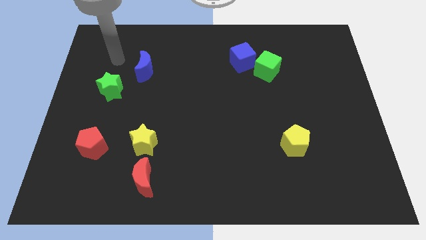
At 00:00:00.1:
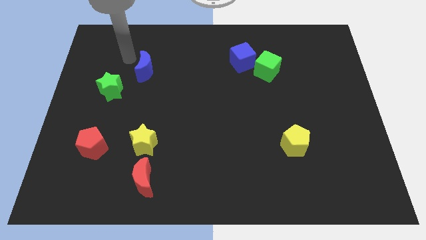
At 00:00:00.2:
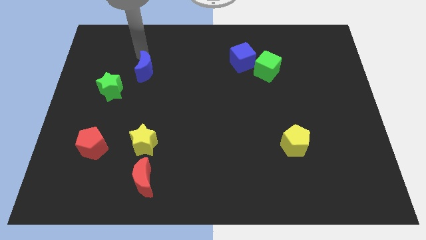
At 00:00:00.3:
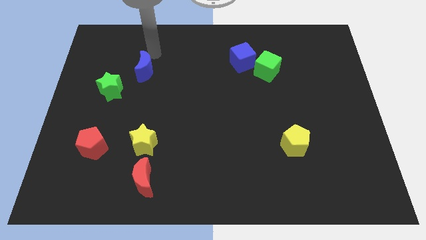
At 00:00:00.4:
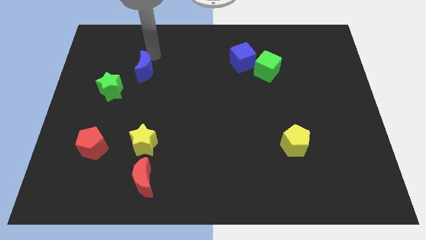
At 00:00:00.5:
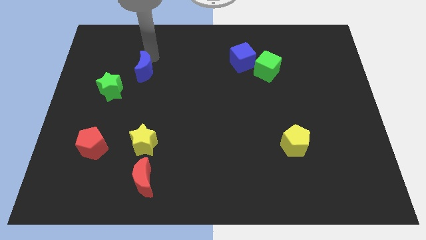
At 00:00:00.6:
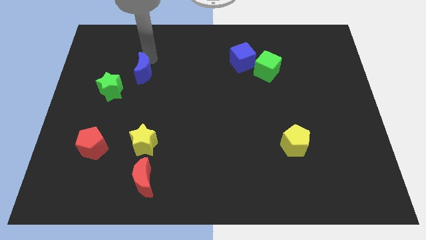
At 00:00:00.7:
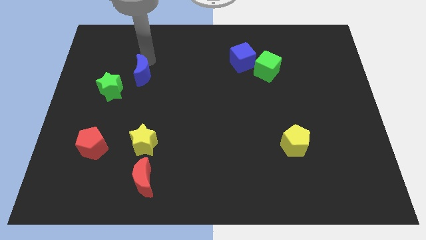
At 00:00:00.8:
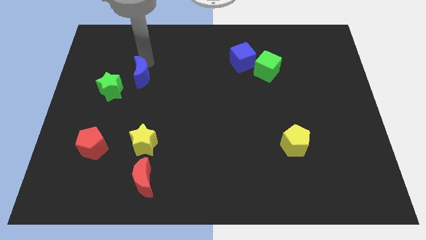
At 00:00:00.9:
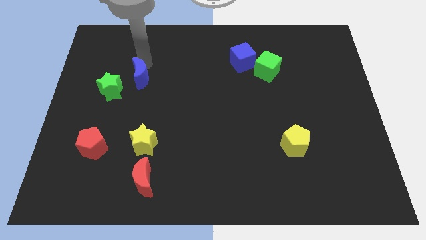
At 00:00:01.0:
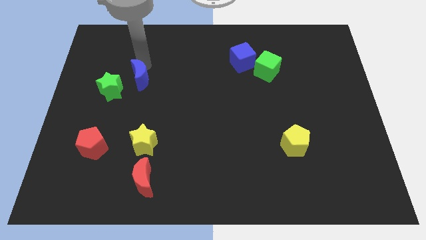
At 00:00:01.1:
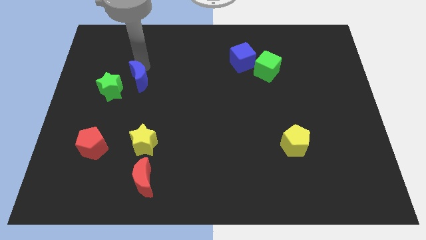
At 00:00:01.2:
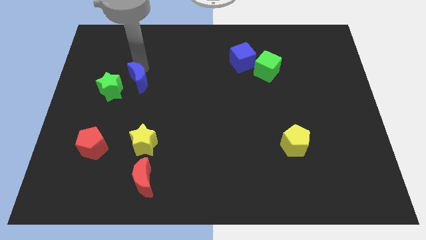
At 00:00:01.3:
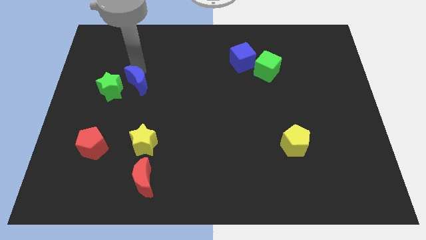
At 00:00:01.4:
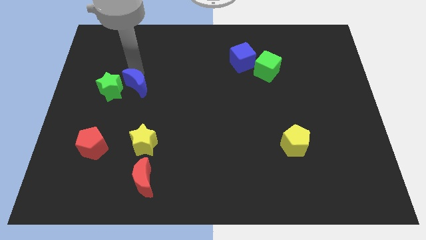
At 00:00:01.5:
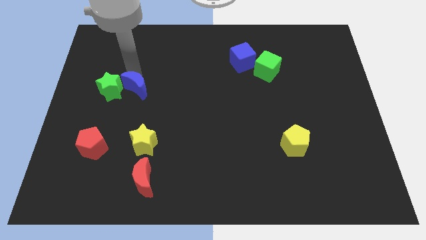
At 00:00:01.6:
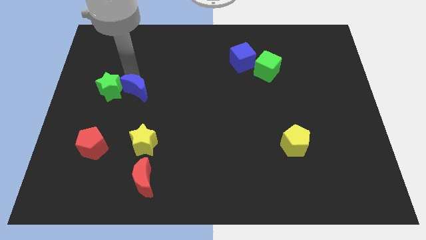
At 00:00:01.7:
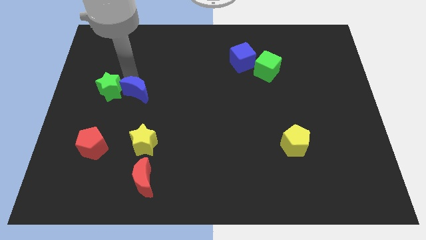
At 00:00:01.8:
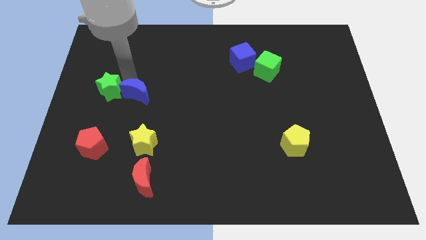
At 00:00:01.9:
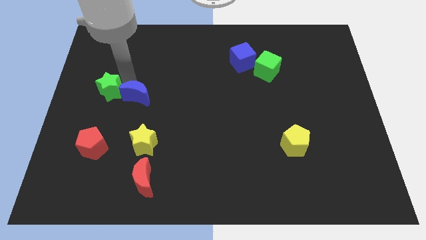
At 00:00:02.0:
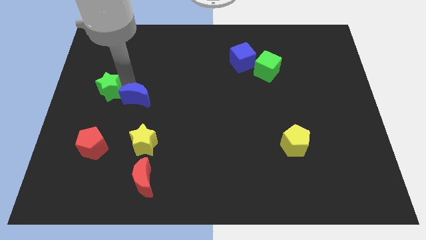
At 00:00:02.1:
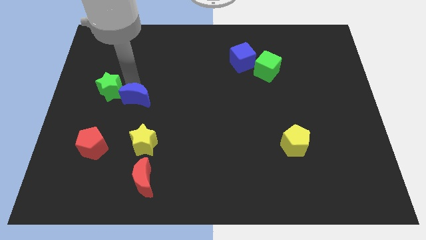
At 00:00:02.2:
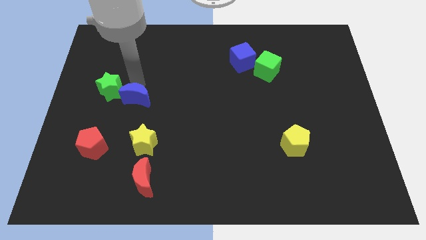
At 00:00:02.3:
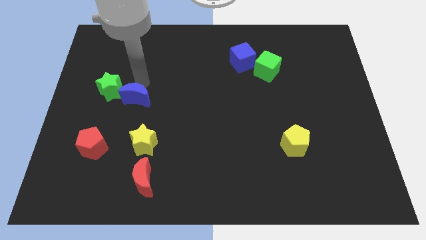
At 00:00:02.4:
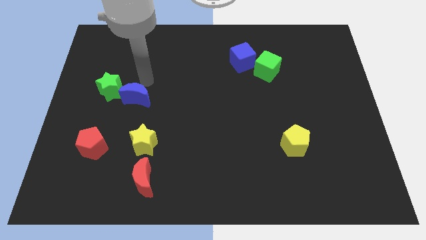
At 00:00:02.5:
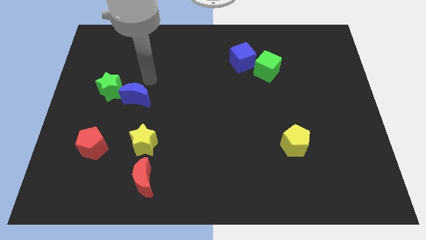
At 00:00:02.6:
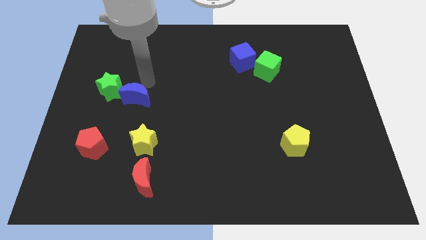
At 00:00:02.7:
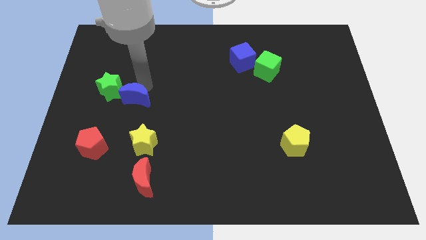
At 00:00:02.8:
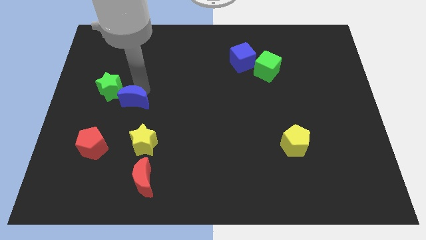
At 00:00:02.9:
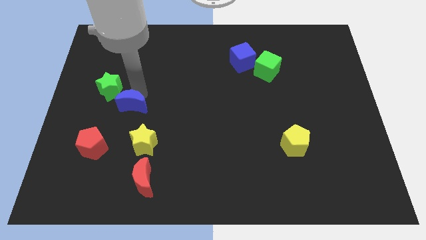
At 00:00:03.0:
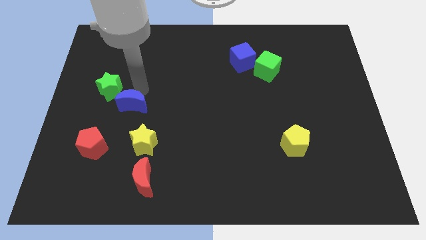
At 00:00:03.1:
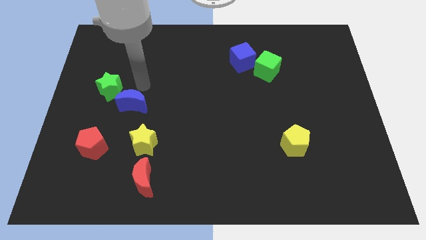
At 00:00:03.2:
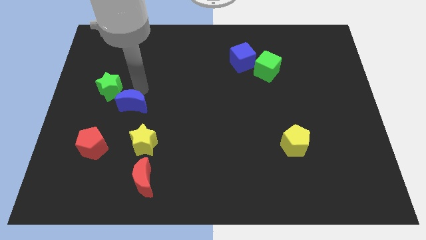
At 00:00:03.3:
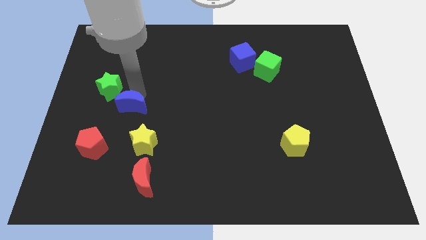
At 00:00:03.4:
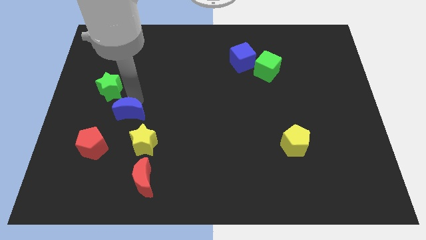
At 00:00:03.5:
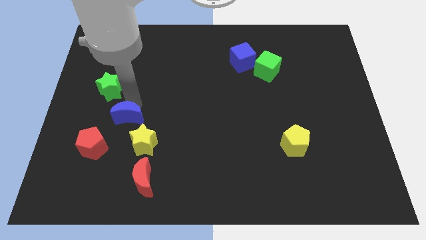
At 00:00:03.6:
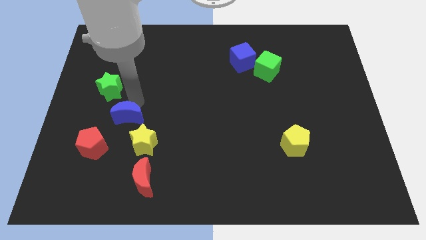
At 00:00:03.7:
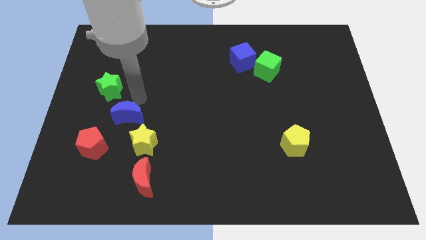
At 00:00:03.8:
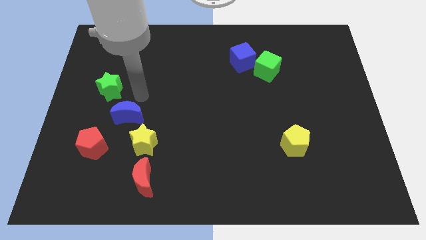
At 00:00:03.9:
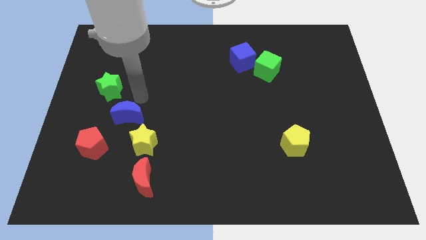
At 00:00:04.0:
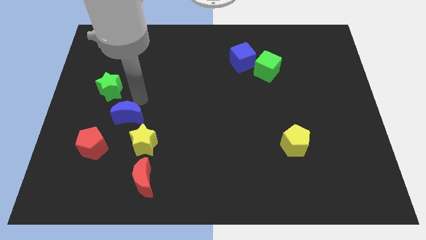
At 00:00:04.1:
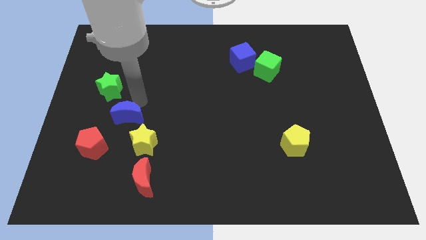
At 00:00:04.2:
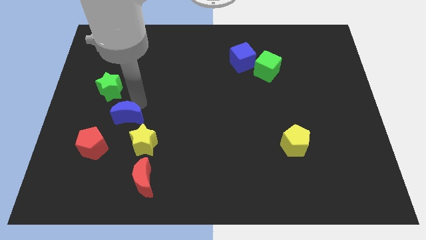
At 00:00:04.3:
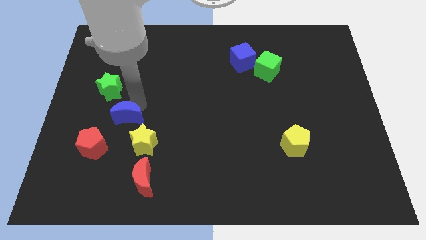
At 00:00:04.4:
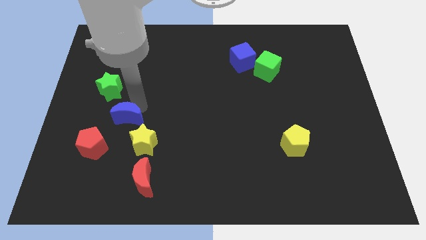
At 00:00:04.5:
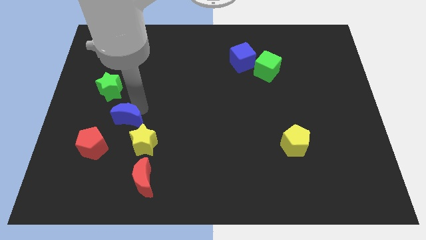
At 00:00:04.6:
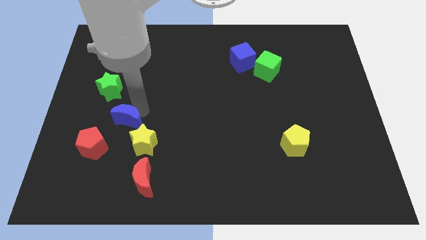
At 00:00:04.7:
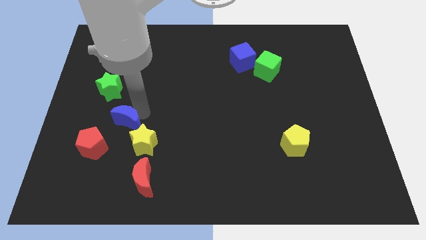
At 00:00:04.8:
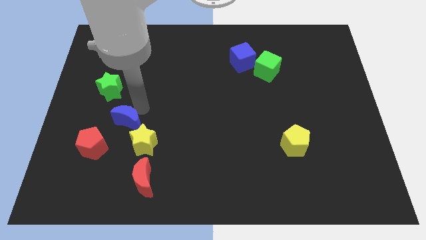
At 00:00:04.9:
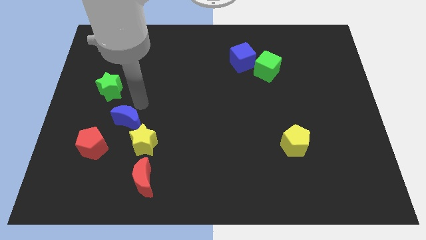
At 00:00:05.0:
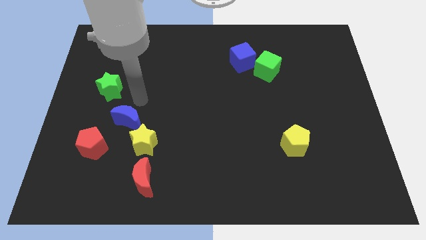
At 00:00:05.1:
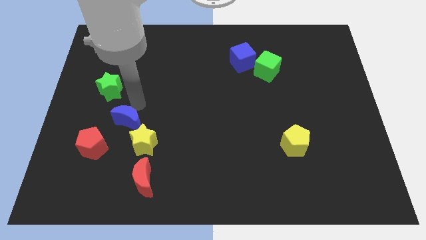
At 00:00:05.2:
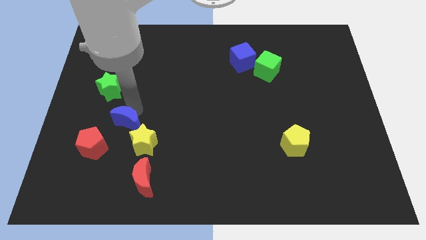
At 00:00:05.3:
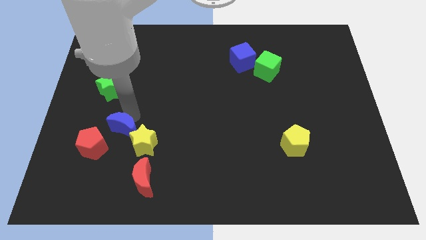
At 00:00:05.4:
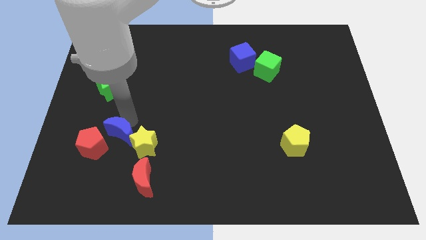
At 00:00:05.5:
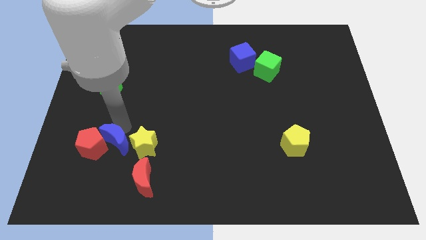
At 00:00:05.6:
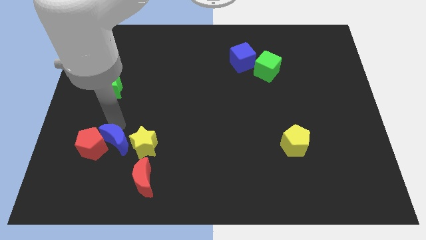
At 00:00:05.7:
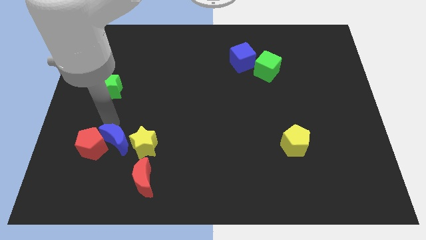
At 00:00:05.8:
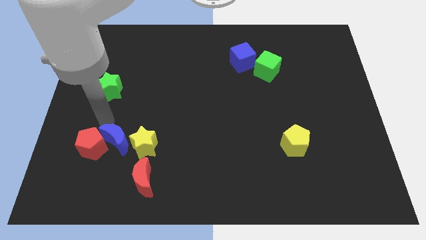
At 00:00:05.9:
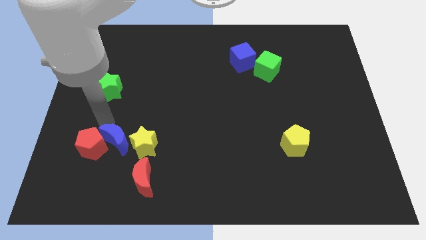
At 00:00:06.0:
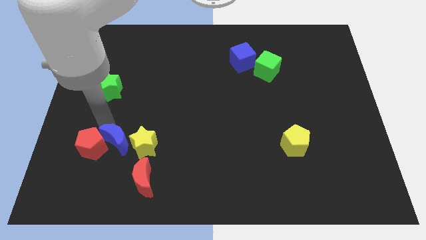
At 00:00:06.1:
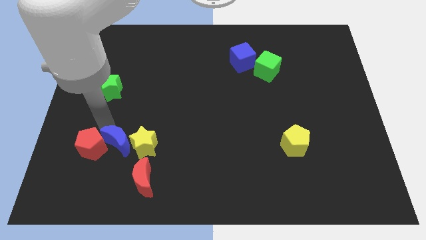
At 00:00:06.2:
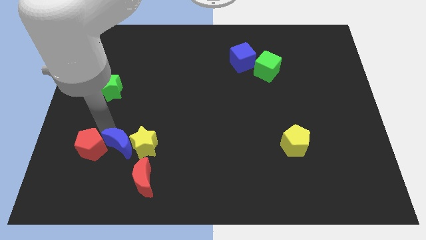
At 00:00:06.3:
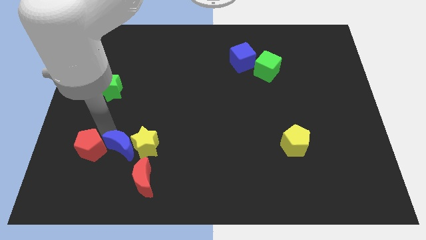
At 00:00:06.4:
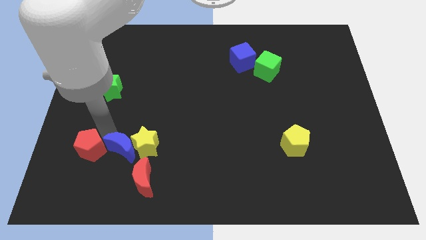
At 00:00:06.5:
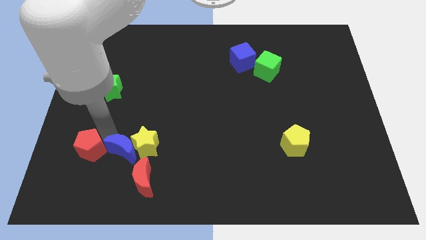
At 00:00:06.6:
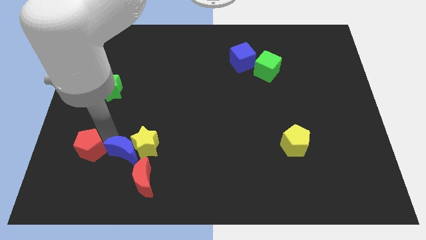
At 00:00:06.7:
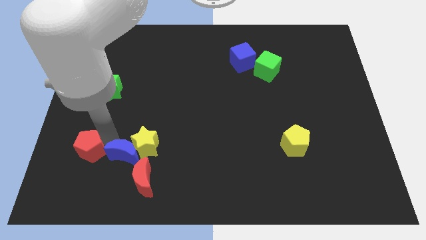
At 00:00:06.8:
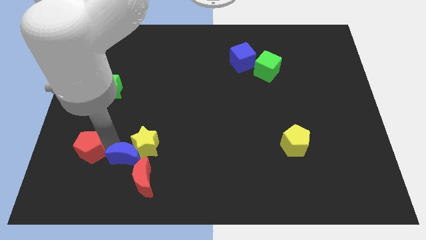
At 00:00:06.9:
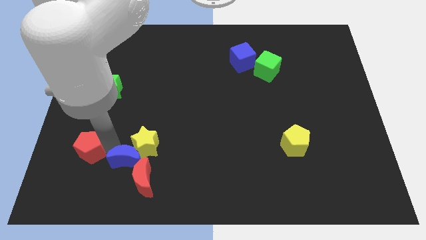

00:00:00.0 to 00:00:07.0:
push the blue moon close to the red moon

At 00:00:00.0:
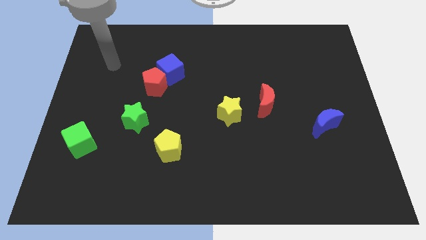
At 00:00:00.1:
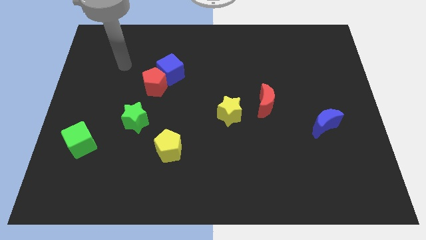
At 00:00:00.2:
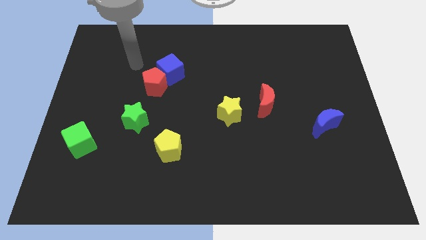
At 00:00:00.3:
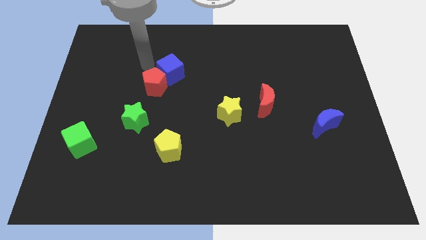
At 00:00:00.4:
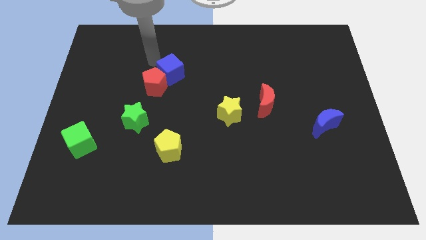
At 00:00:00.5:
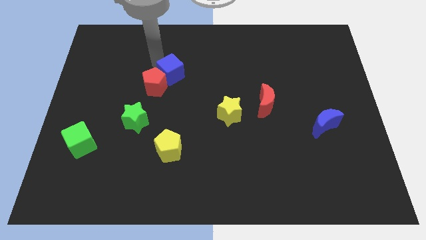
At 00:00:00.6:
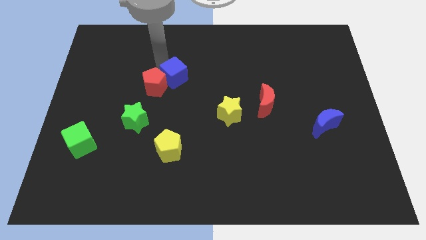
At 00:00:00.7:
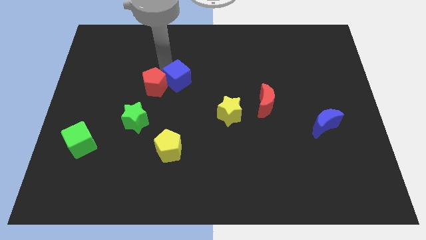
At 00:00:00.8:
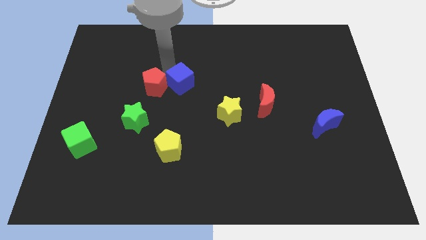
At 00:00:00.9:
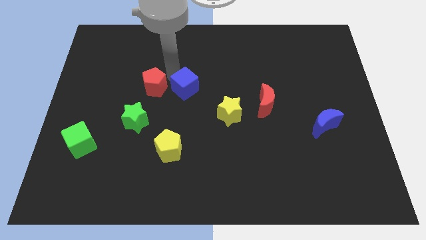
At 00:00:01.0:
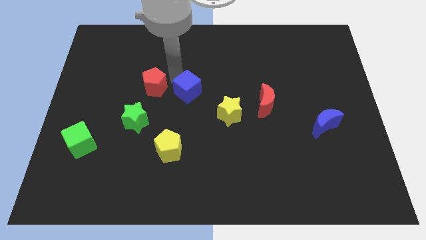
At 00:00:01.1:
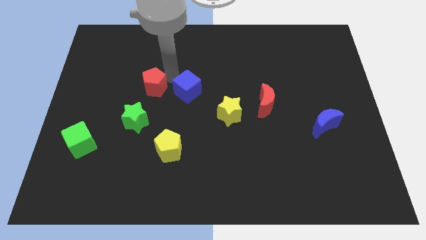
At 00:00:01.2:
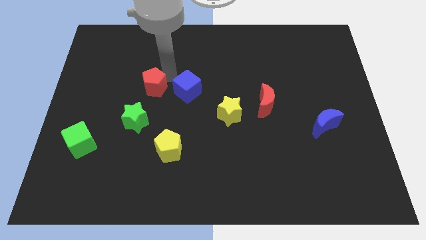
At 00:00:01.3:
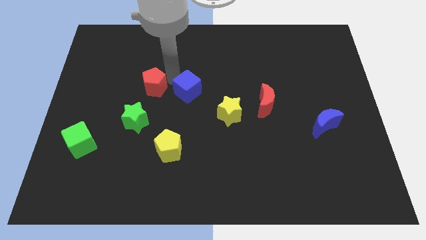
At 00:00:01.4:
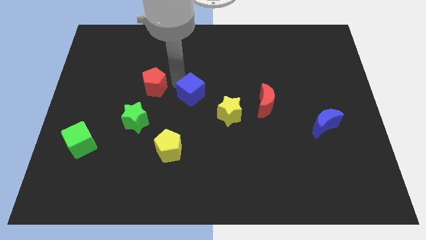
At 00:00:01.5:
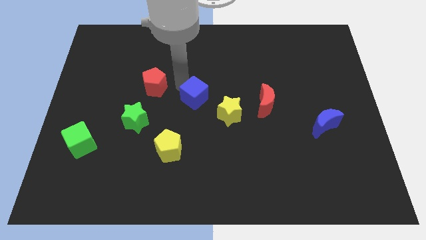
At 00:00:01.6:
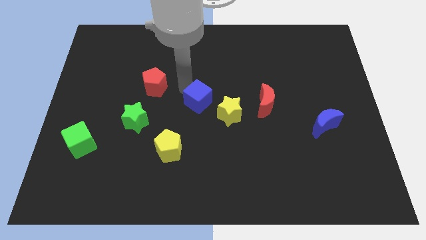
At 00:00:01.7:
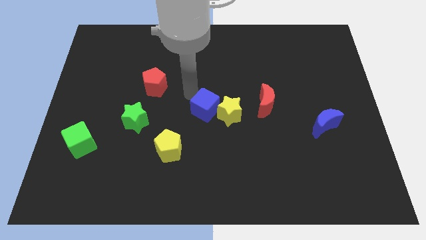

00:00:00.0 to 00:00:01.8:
slide the blue cube next to the yellow star
